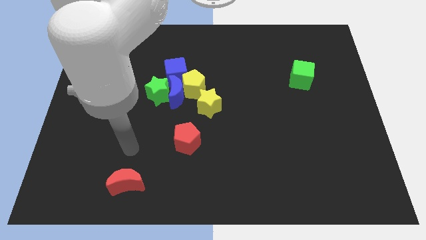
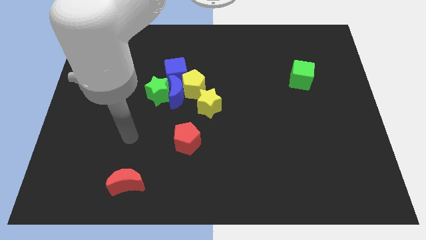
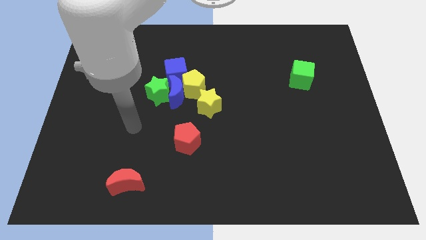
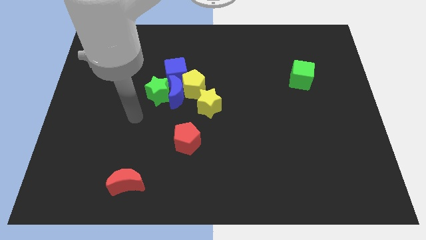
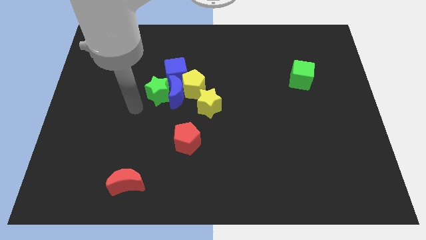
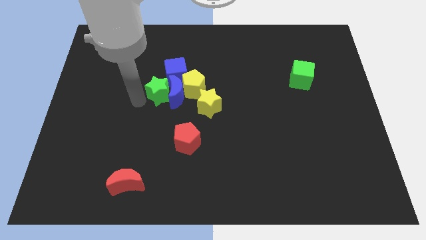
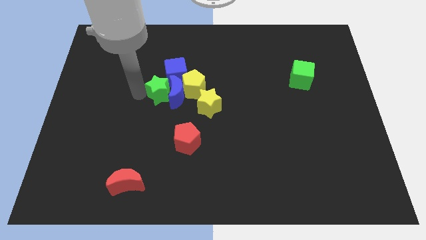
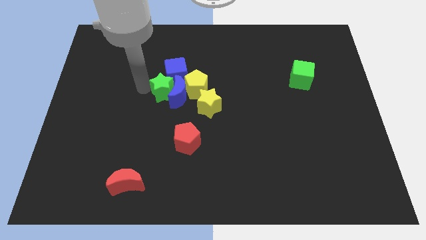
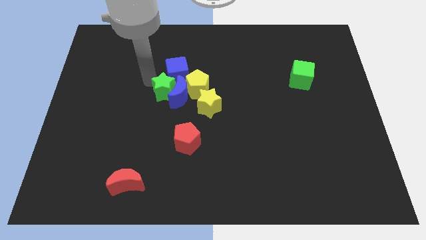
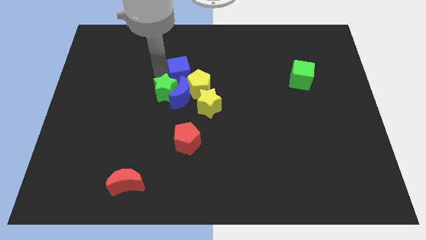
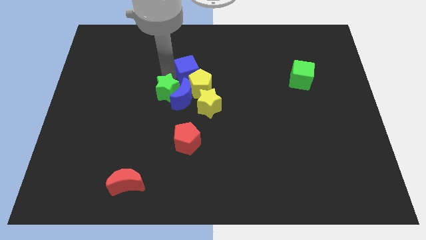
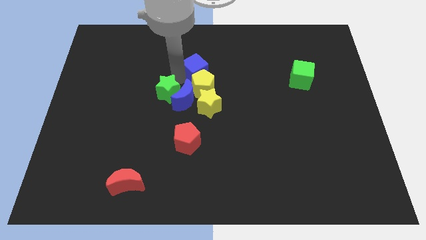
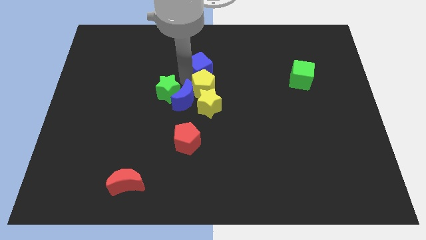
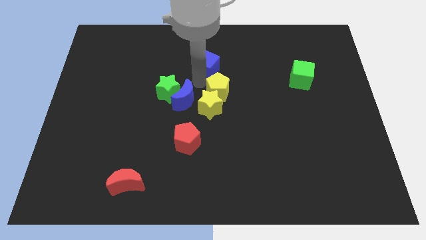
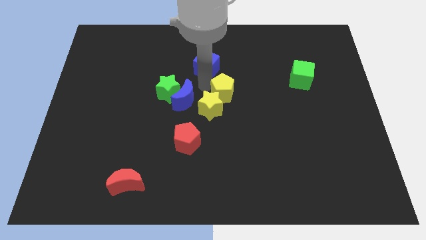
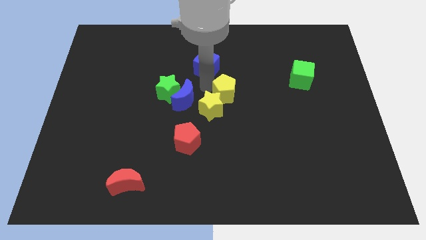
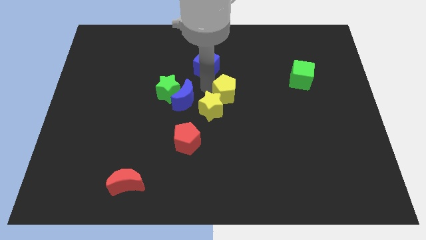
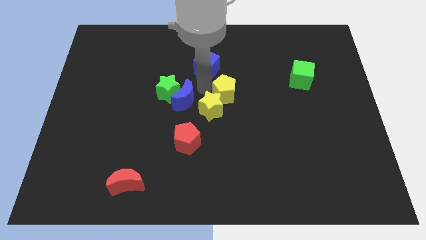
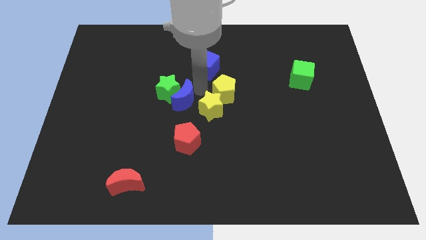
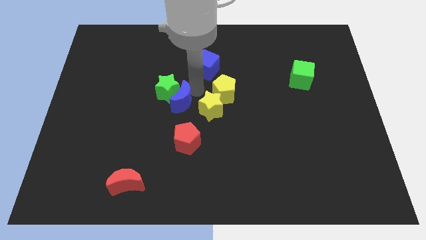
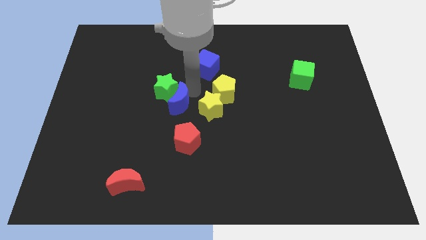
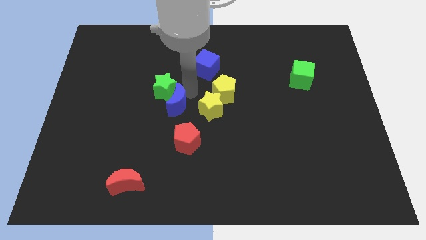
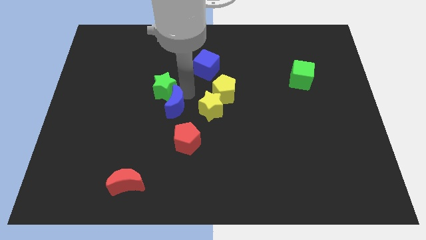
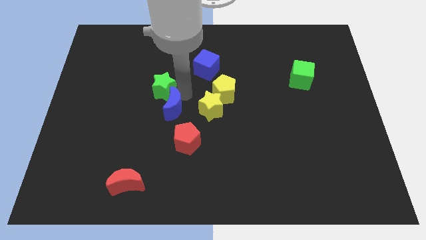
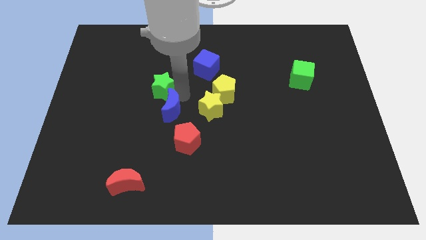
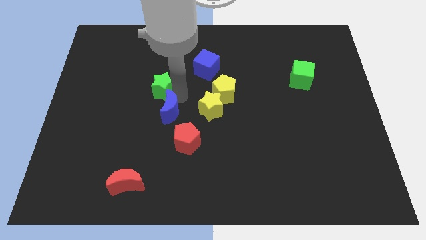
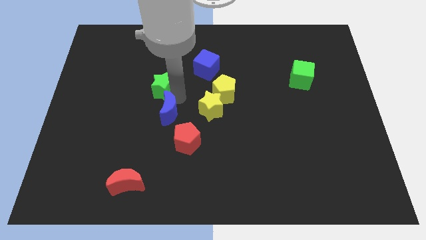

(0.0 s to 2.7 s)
pull the blue moon apart from the clump

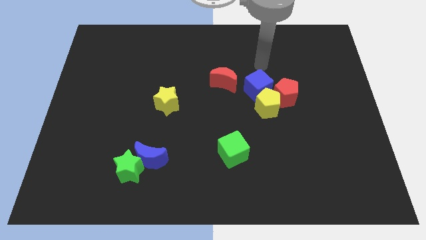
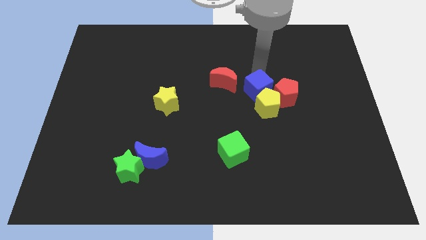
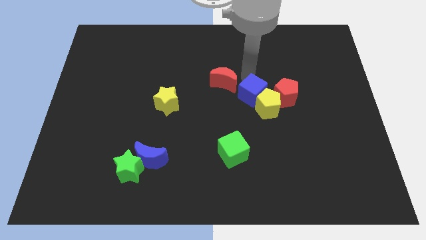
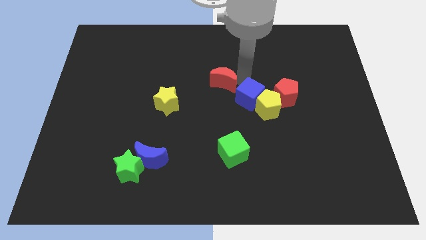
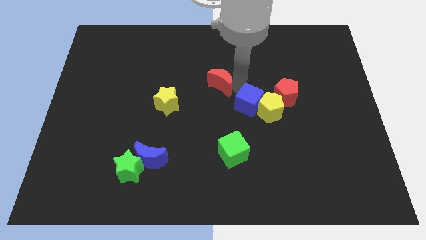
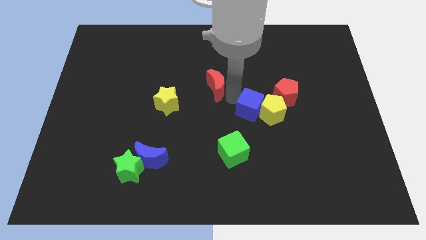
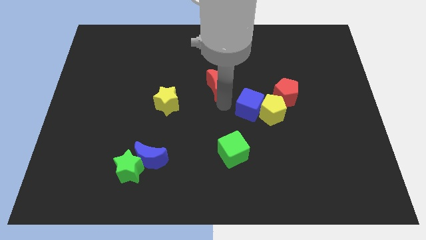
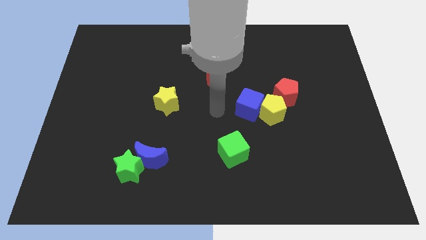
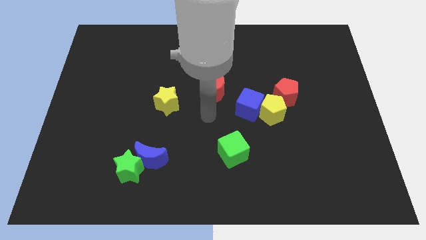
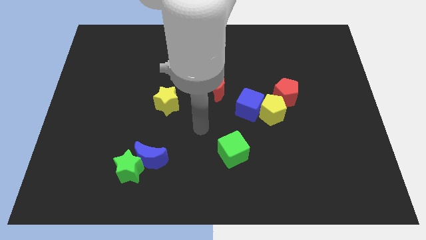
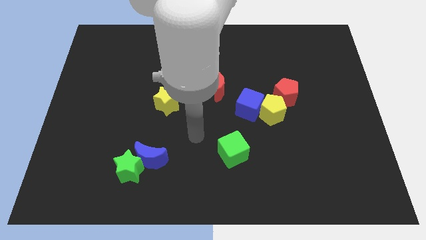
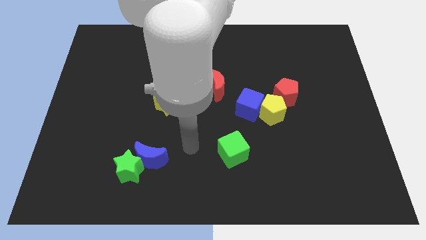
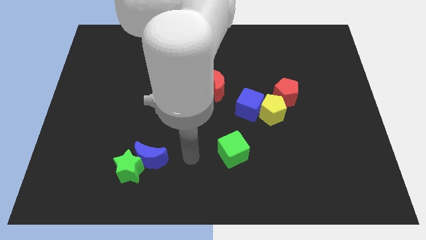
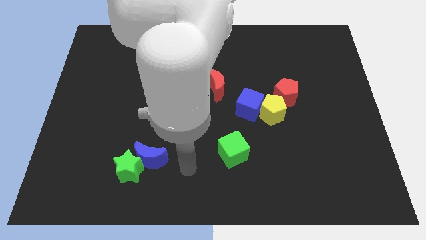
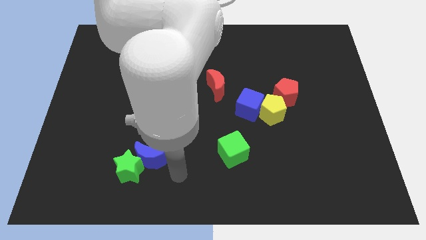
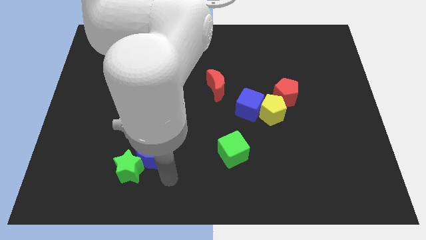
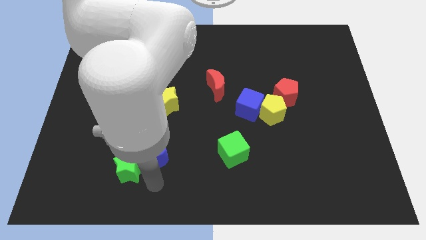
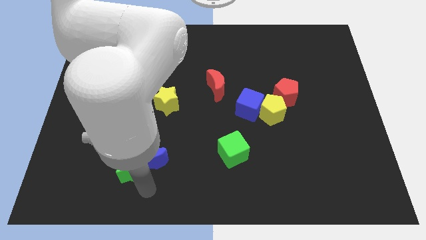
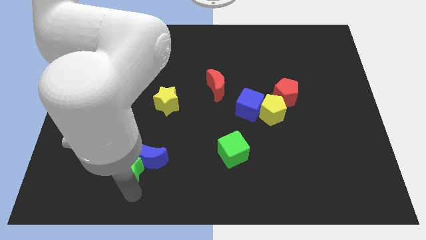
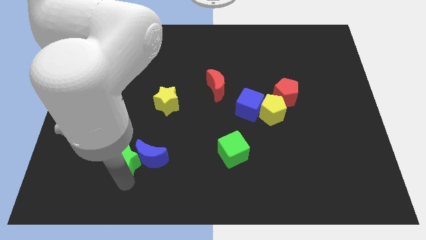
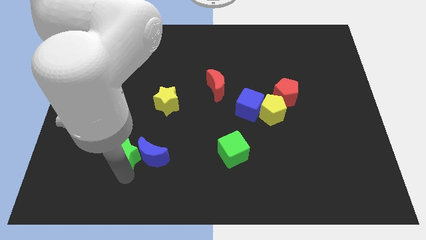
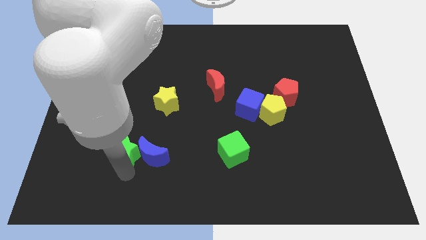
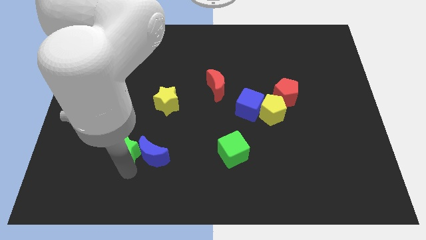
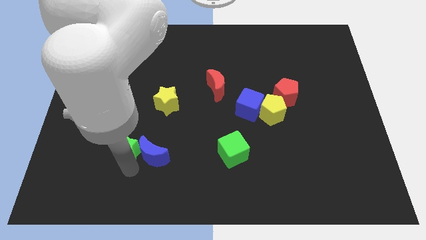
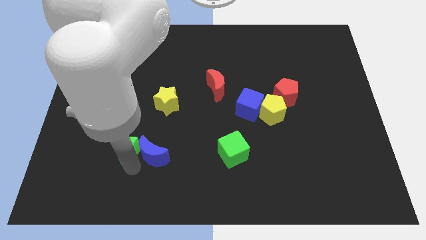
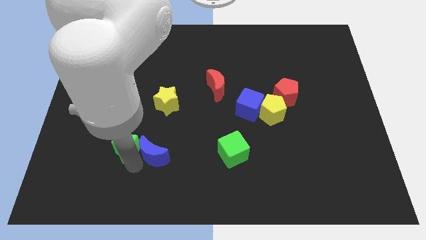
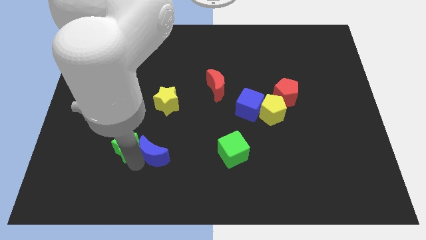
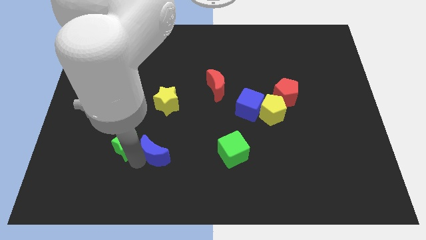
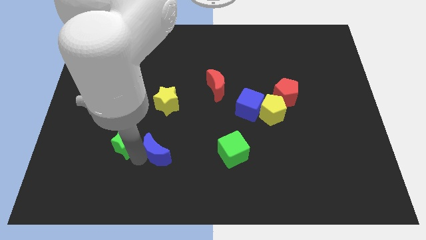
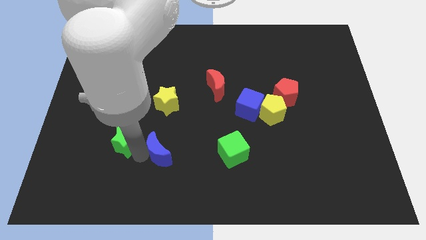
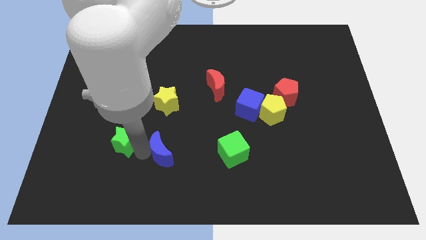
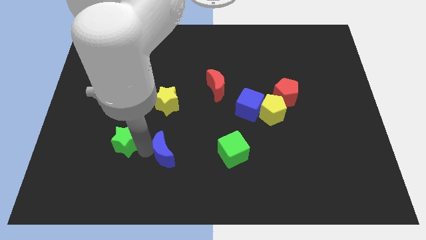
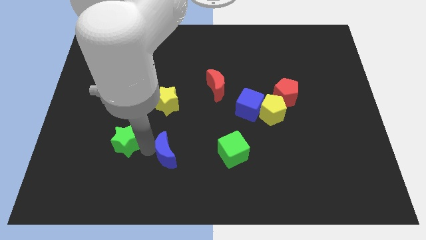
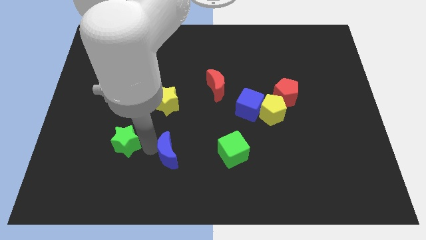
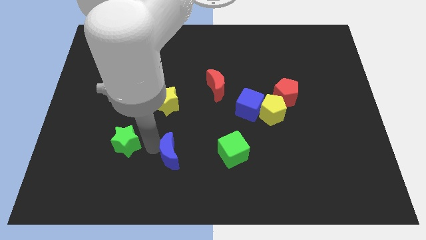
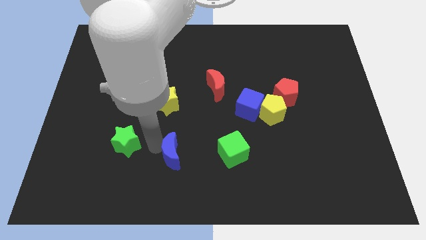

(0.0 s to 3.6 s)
pull the blue moon apart from the green star

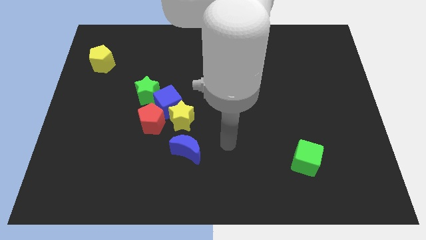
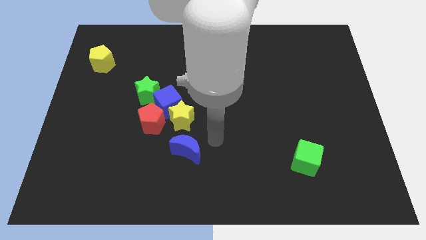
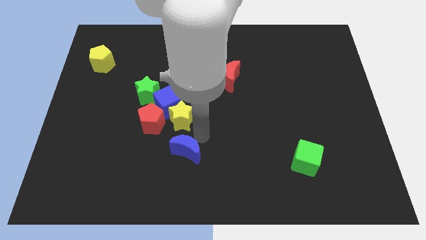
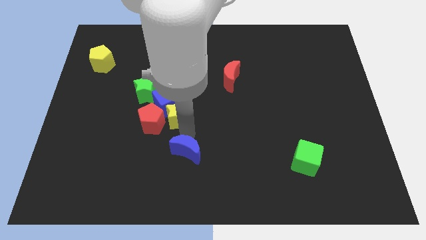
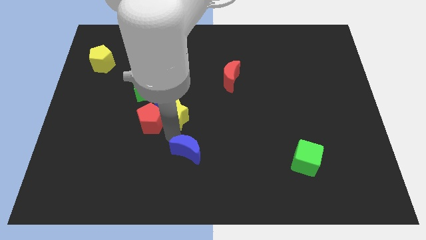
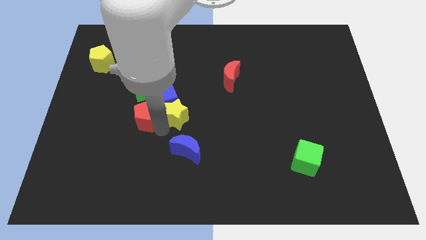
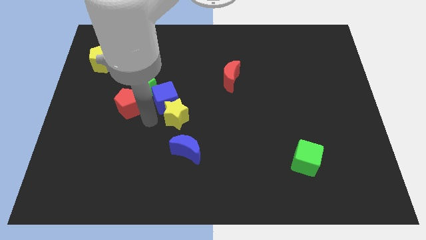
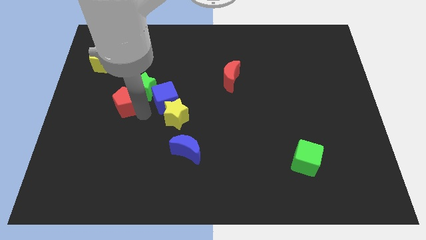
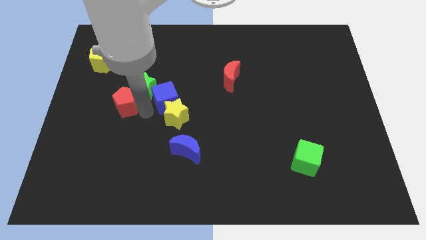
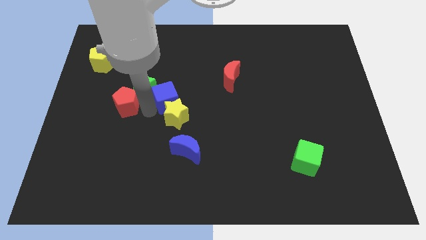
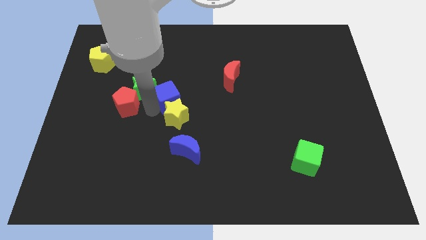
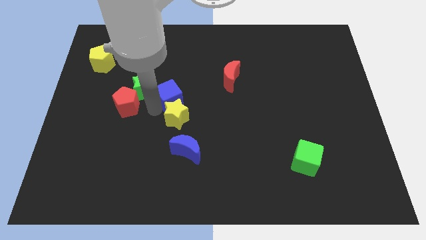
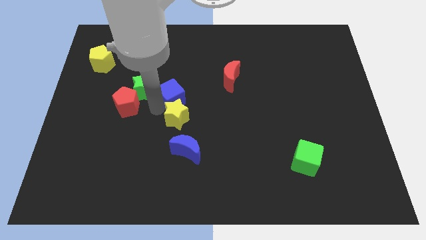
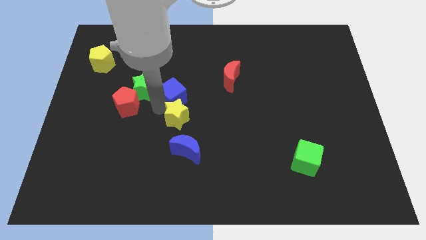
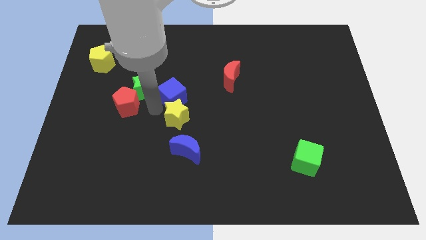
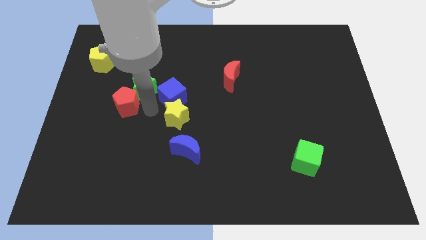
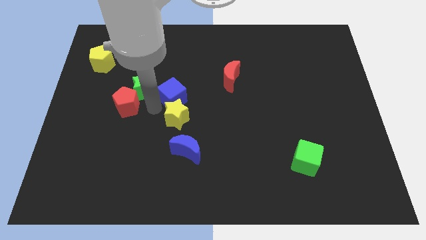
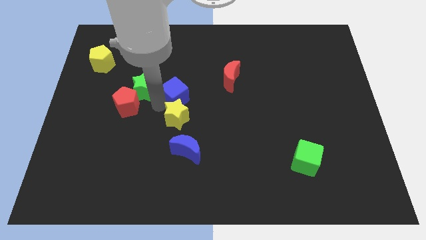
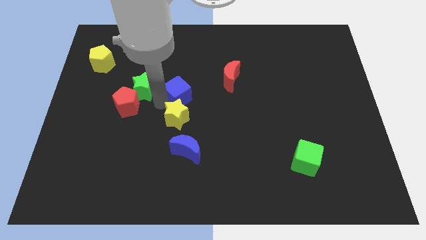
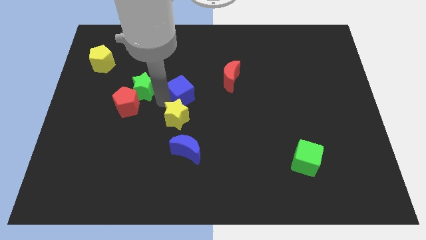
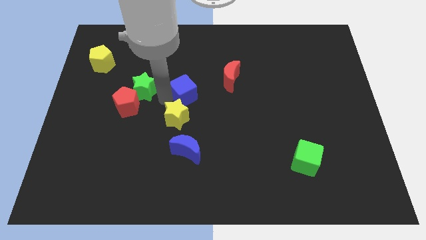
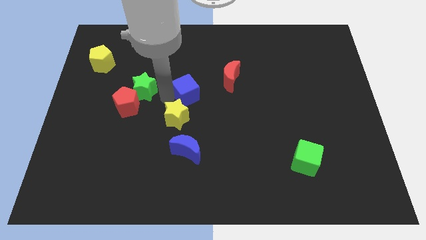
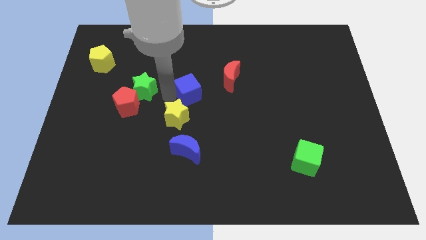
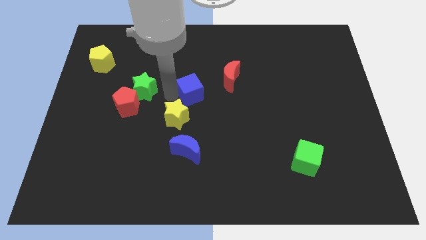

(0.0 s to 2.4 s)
separate the blue cube from the yellow star, red pentagon, and green star

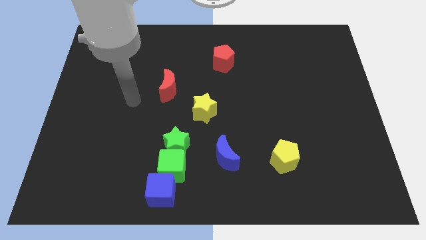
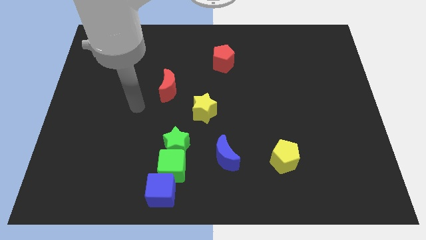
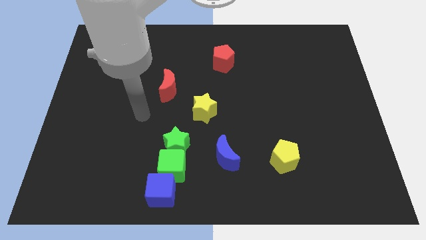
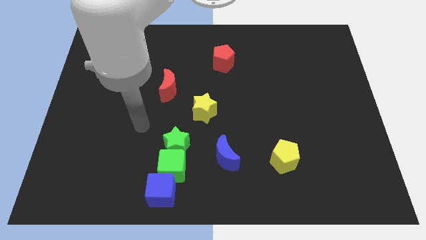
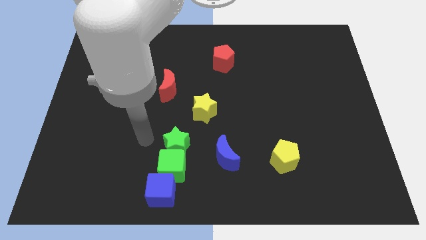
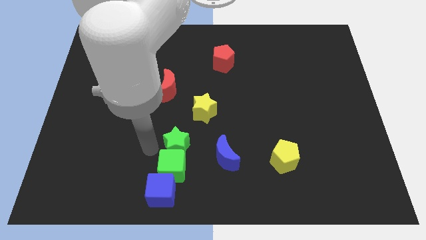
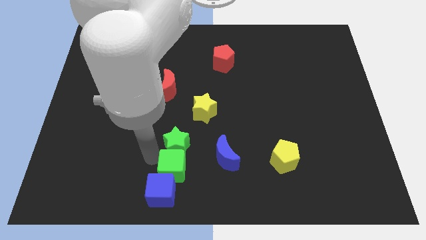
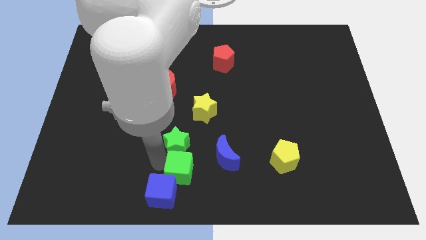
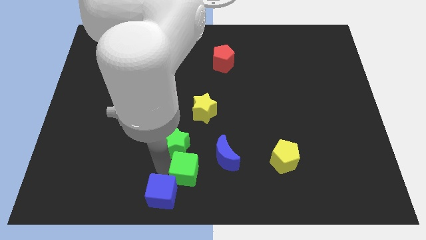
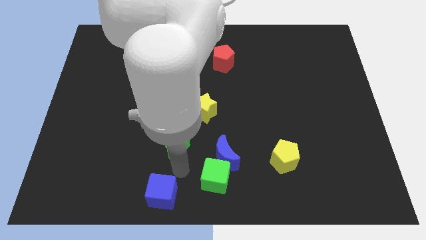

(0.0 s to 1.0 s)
separate the green star from the green cube
